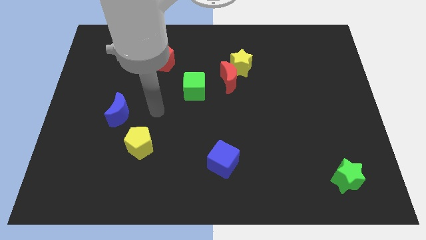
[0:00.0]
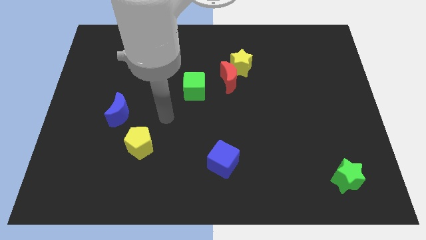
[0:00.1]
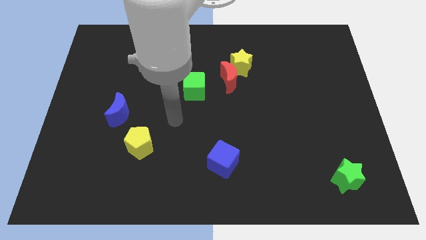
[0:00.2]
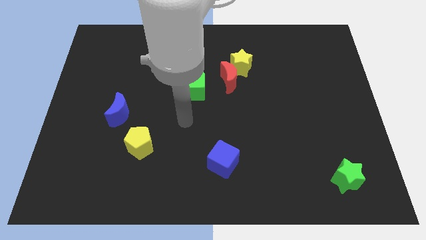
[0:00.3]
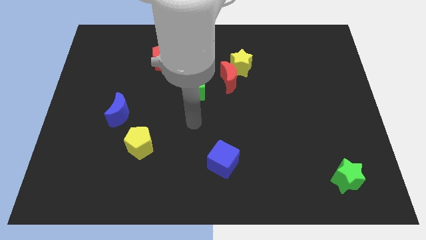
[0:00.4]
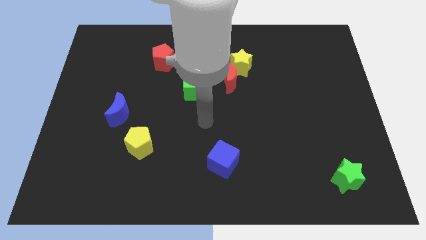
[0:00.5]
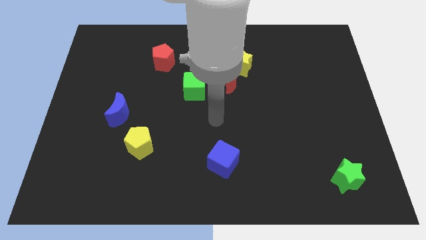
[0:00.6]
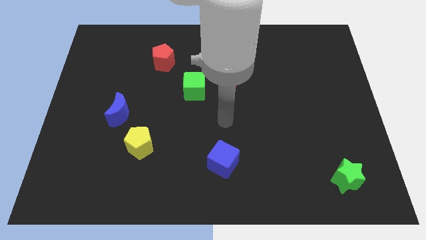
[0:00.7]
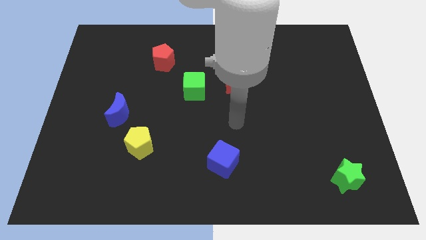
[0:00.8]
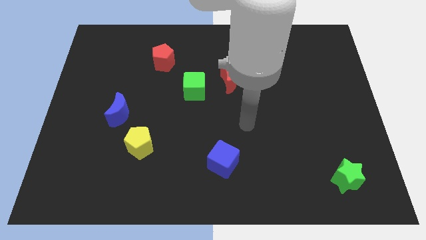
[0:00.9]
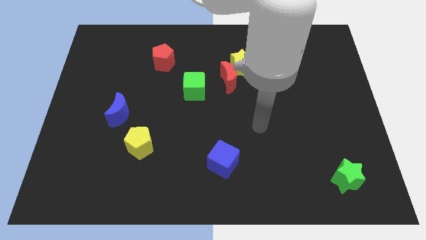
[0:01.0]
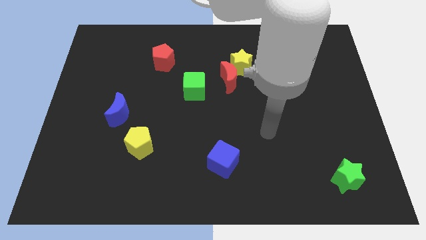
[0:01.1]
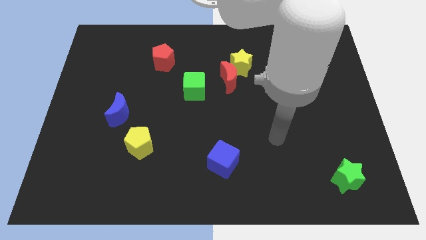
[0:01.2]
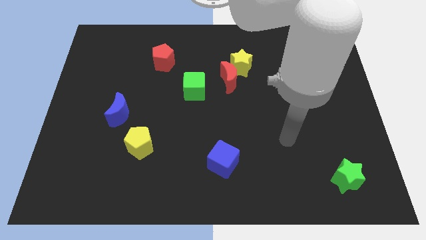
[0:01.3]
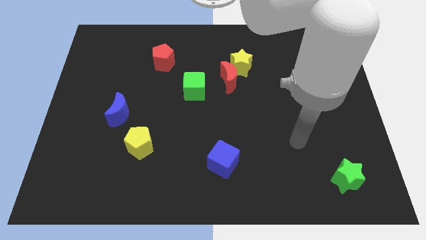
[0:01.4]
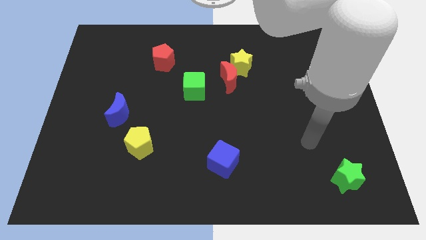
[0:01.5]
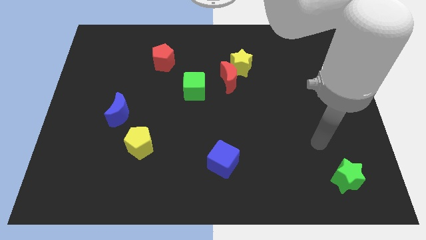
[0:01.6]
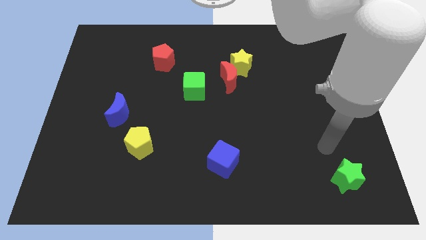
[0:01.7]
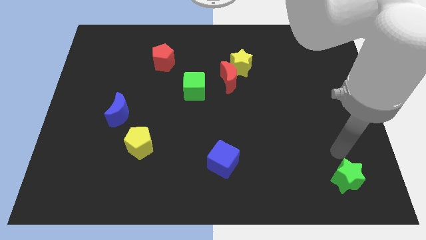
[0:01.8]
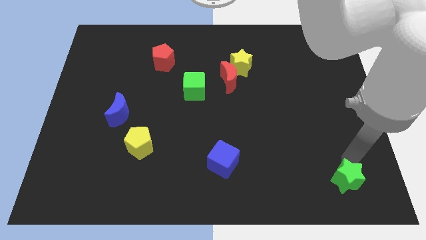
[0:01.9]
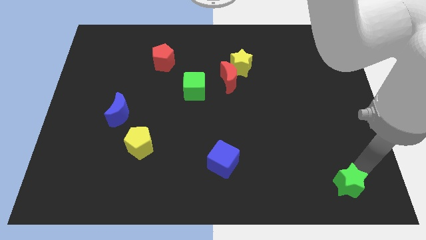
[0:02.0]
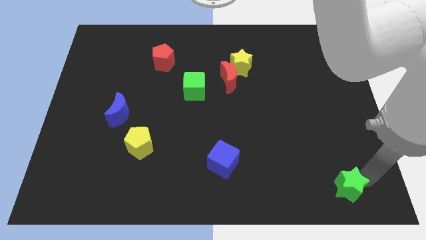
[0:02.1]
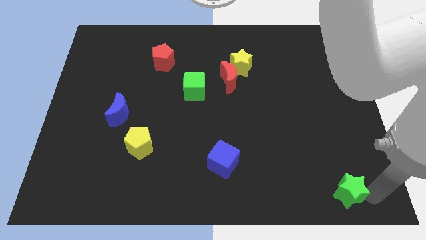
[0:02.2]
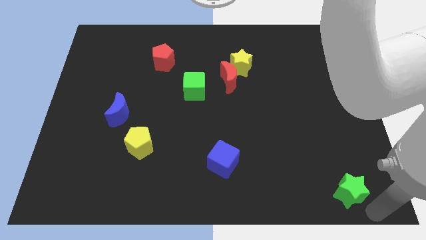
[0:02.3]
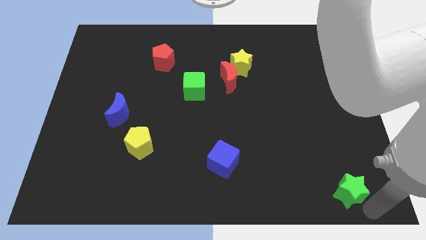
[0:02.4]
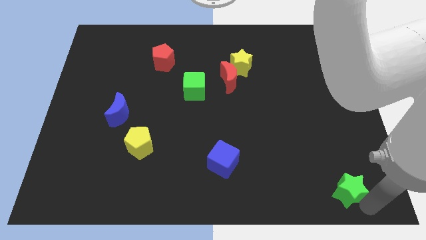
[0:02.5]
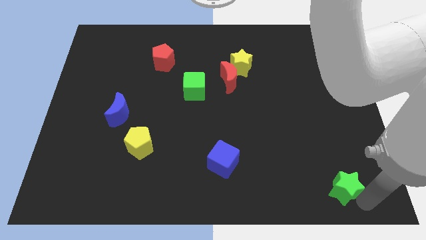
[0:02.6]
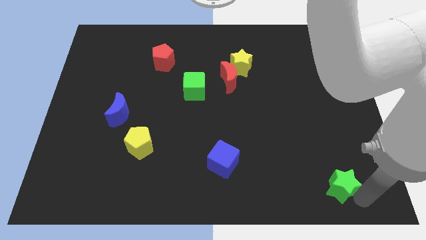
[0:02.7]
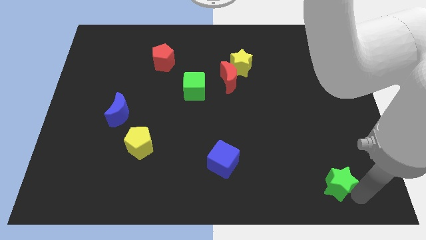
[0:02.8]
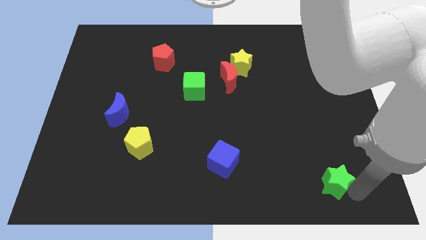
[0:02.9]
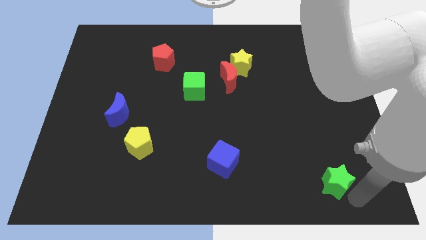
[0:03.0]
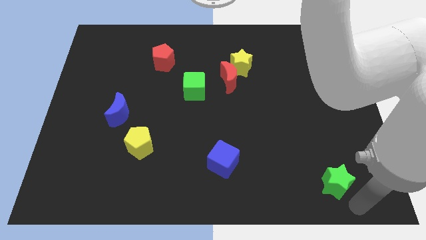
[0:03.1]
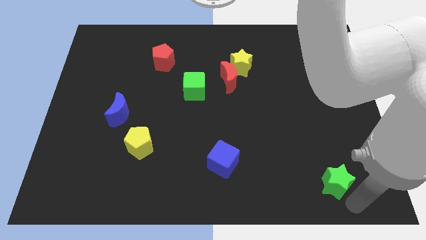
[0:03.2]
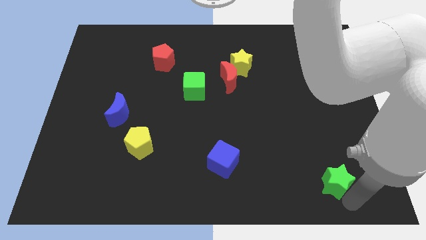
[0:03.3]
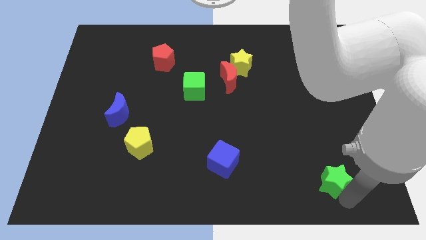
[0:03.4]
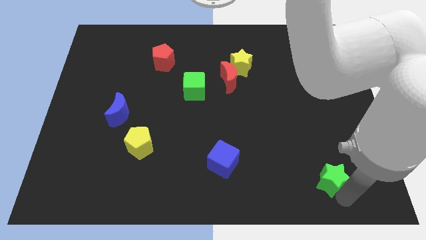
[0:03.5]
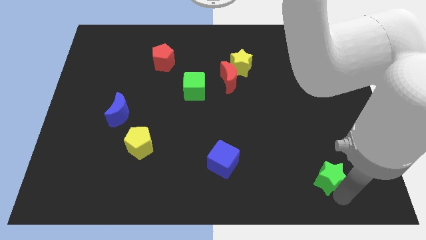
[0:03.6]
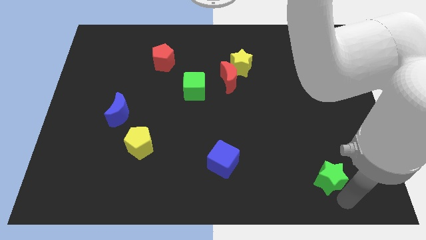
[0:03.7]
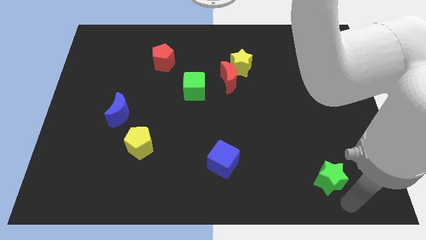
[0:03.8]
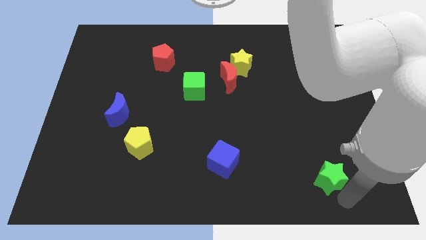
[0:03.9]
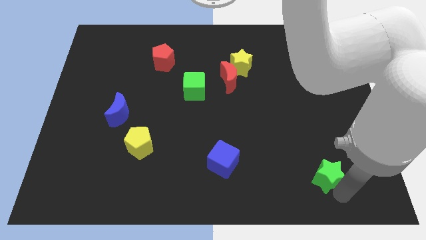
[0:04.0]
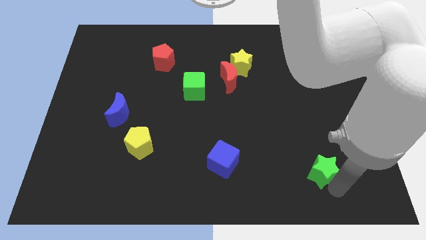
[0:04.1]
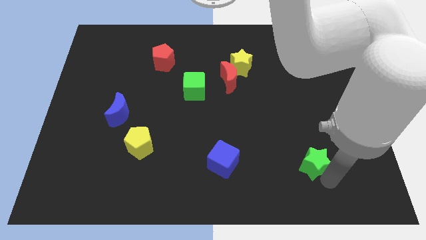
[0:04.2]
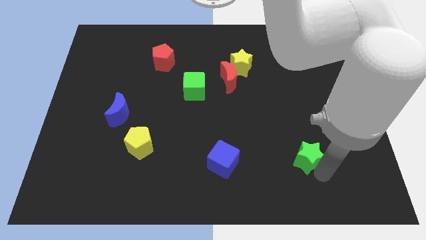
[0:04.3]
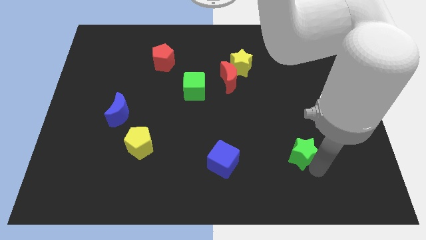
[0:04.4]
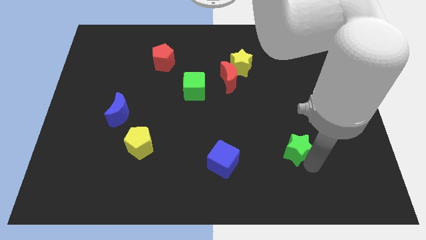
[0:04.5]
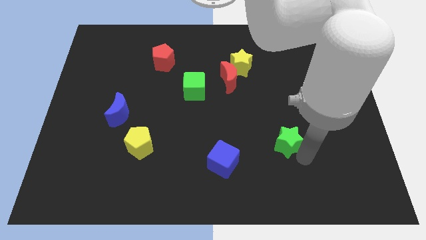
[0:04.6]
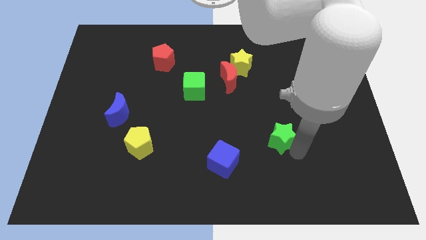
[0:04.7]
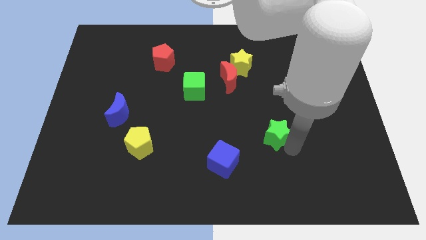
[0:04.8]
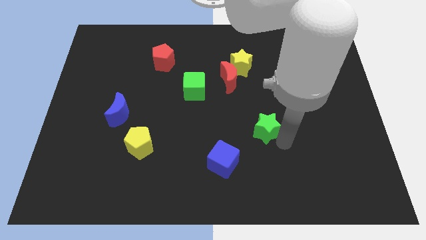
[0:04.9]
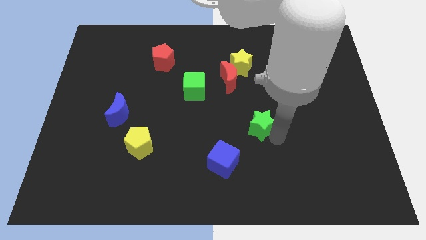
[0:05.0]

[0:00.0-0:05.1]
slide the green star up and then left

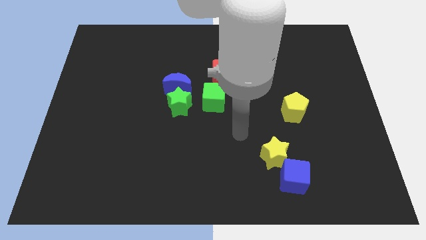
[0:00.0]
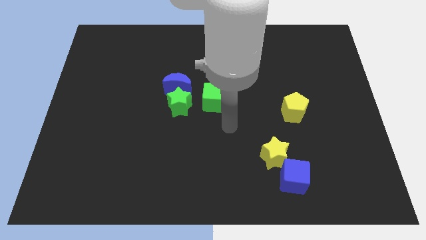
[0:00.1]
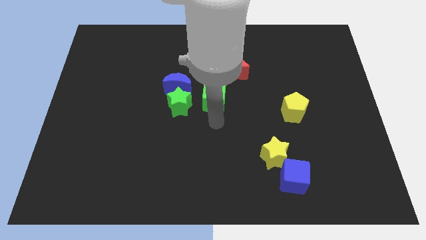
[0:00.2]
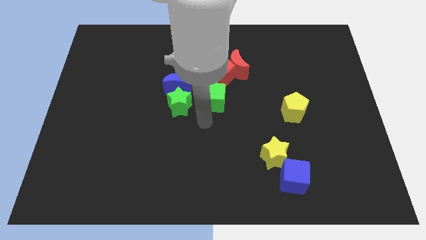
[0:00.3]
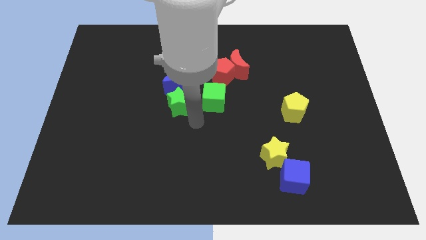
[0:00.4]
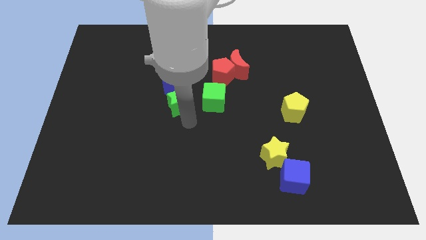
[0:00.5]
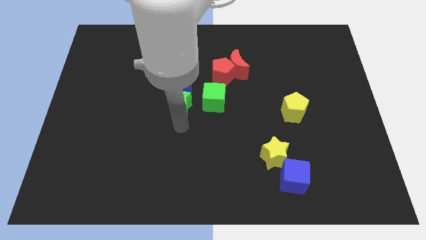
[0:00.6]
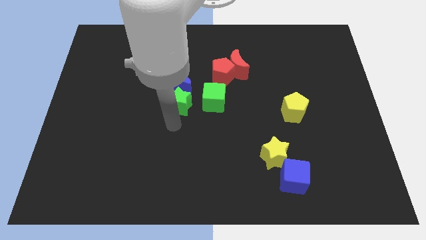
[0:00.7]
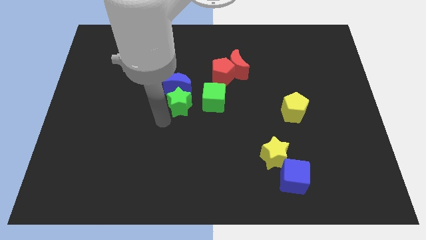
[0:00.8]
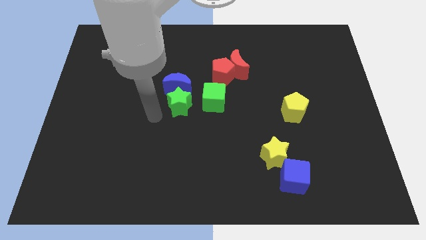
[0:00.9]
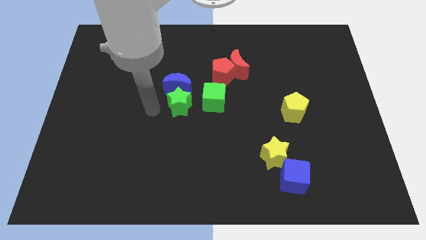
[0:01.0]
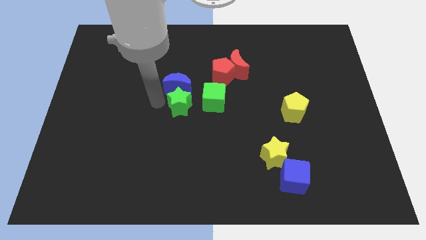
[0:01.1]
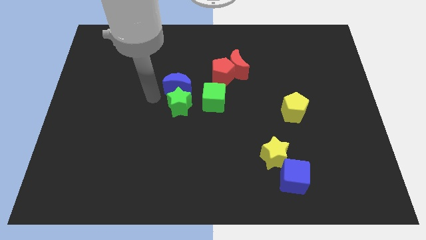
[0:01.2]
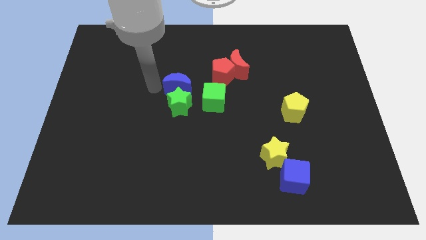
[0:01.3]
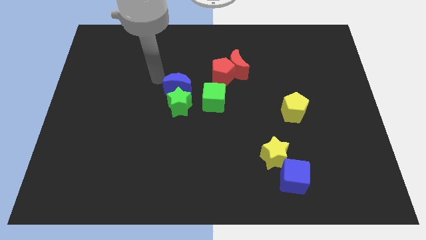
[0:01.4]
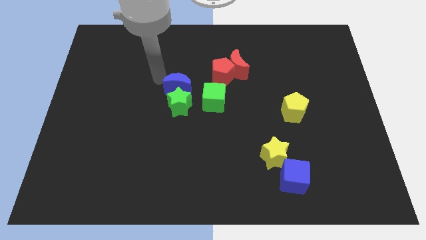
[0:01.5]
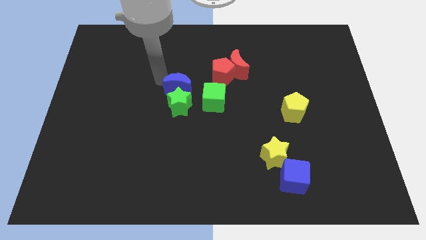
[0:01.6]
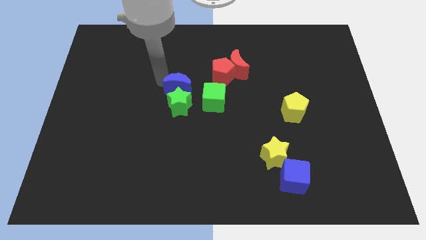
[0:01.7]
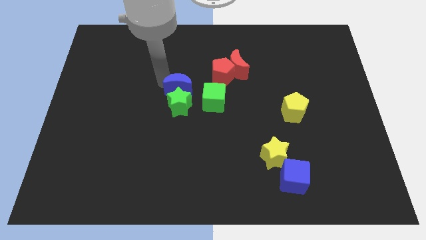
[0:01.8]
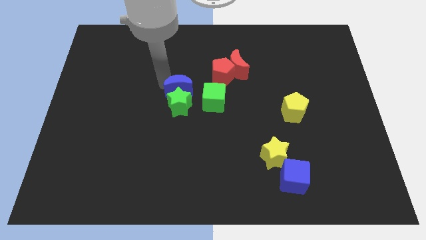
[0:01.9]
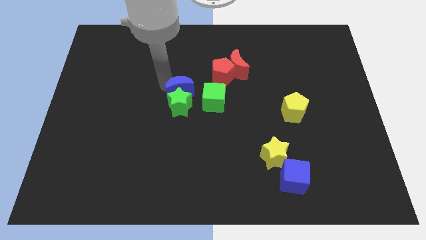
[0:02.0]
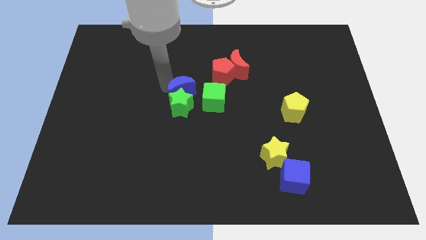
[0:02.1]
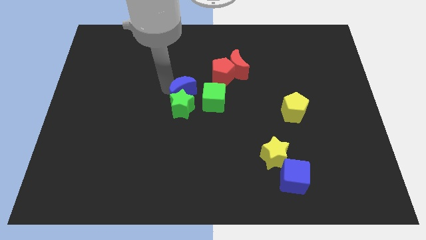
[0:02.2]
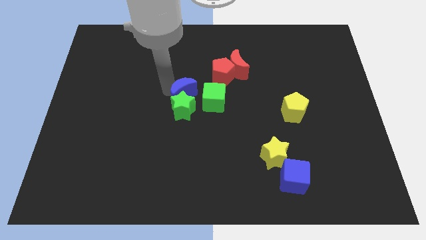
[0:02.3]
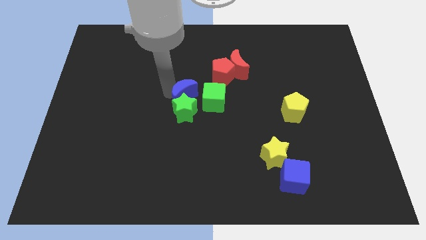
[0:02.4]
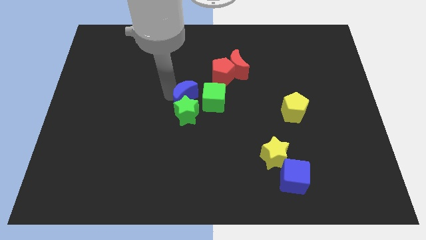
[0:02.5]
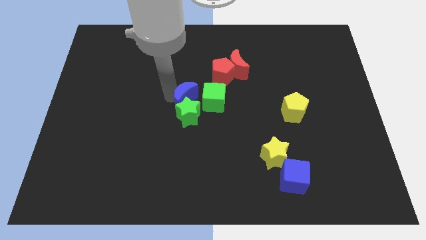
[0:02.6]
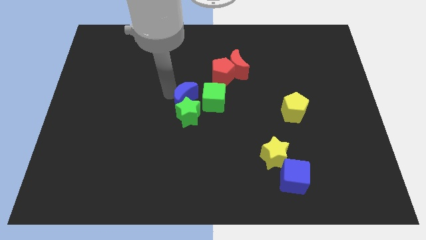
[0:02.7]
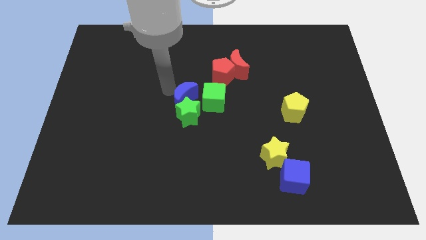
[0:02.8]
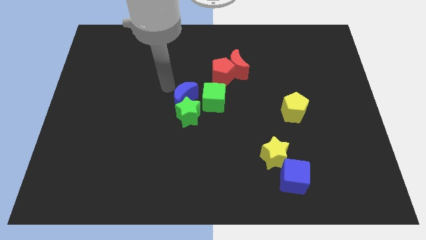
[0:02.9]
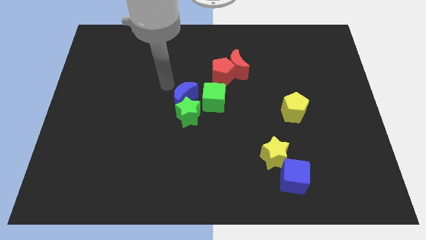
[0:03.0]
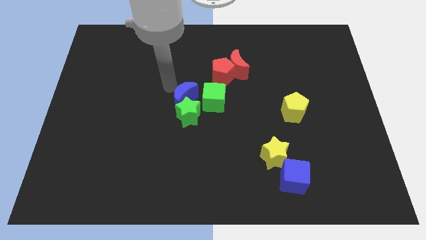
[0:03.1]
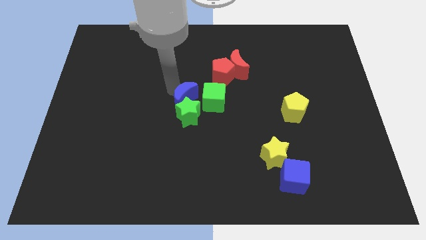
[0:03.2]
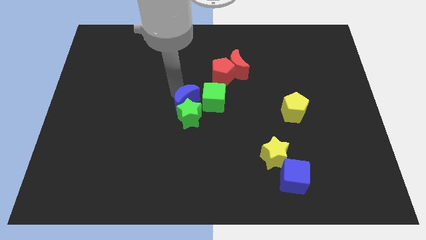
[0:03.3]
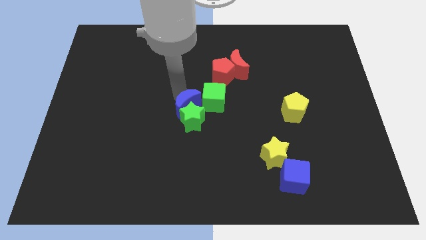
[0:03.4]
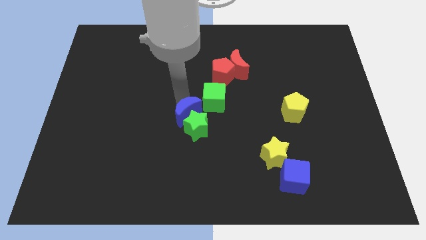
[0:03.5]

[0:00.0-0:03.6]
slide the blue moon downwards and then right slightly
